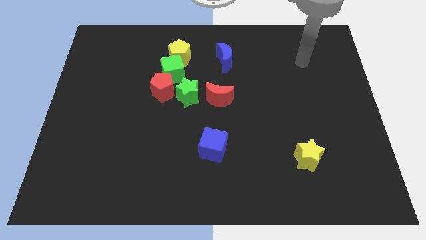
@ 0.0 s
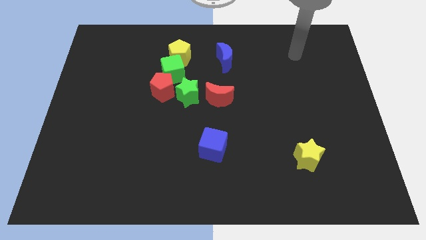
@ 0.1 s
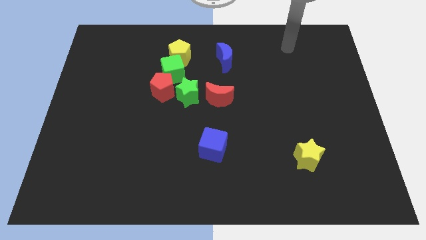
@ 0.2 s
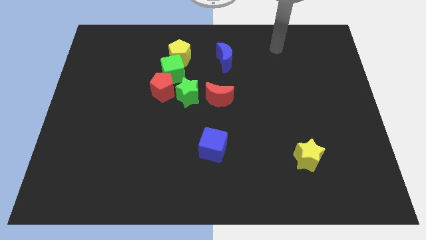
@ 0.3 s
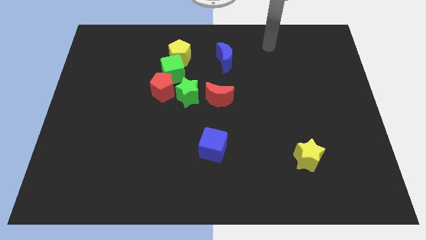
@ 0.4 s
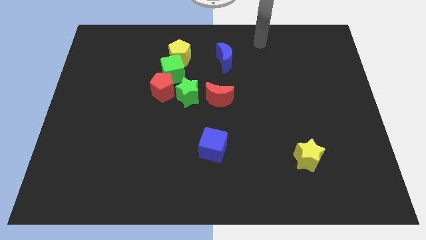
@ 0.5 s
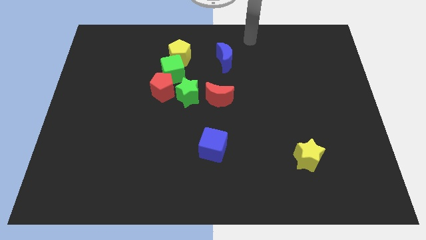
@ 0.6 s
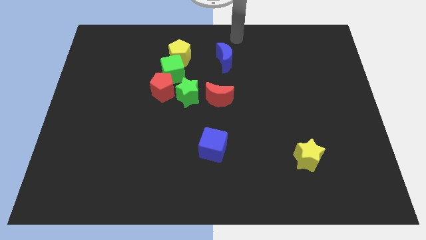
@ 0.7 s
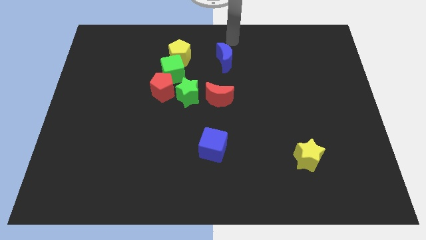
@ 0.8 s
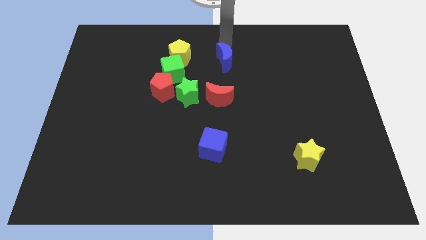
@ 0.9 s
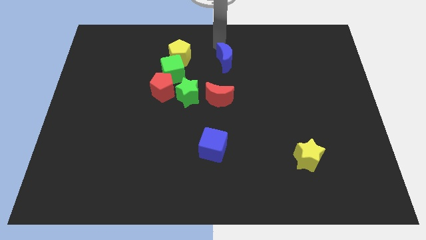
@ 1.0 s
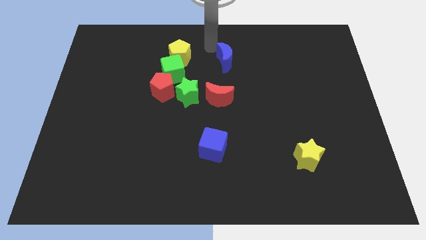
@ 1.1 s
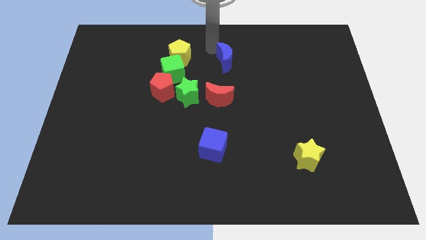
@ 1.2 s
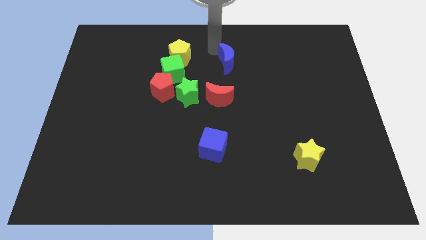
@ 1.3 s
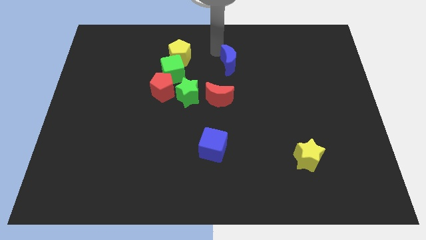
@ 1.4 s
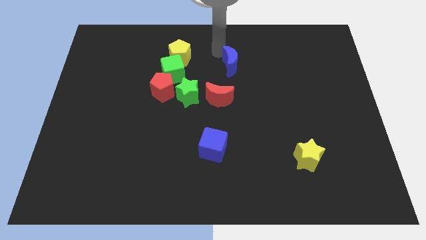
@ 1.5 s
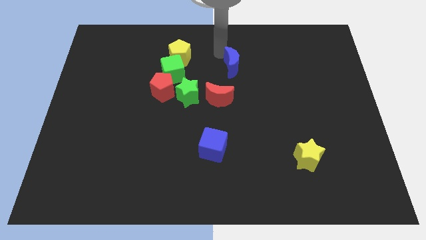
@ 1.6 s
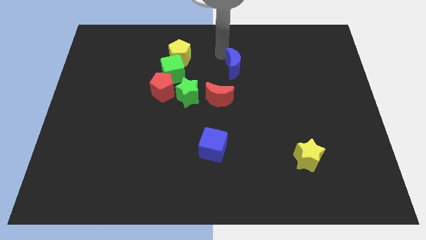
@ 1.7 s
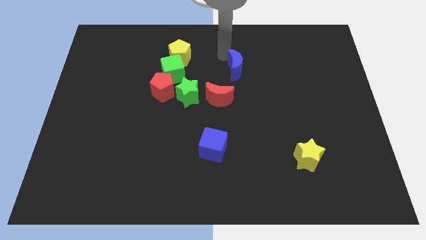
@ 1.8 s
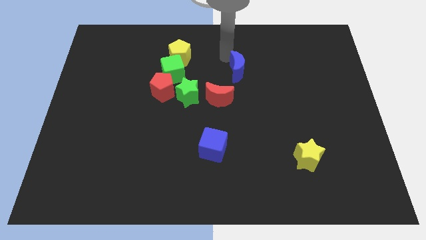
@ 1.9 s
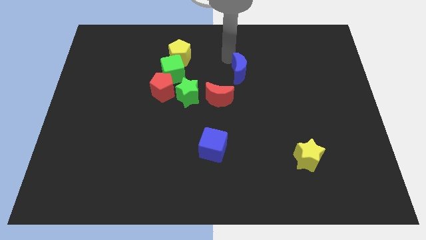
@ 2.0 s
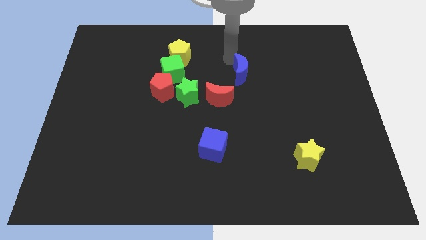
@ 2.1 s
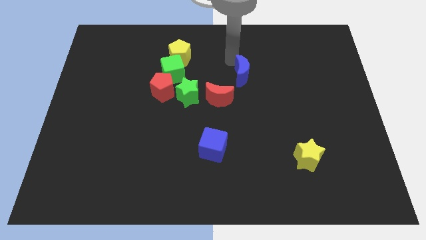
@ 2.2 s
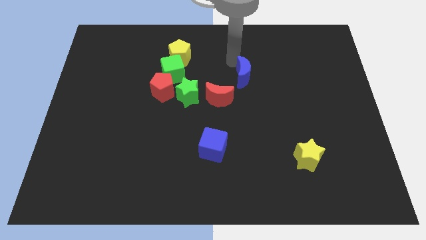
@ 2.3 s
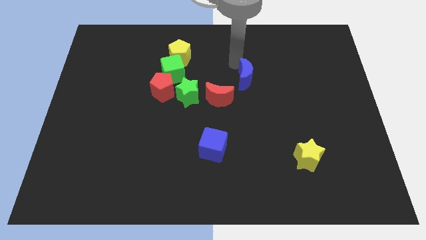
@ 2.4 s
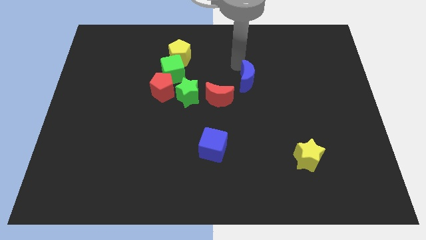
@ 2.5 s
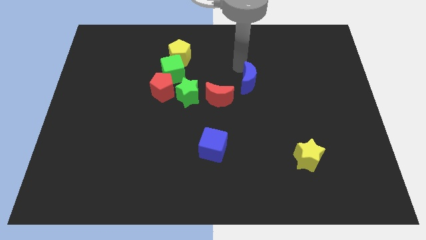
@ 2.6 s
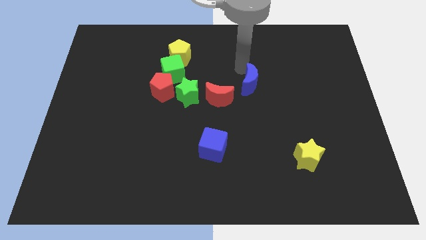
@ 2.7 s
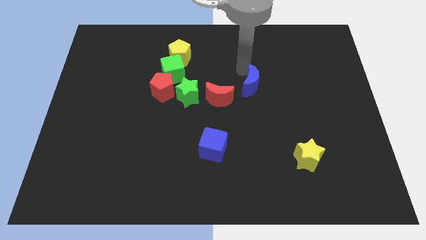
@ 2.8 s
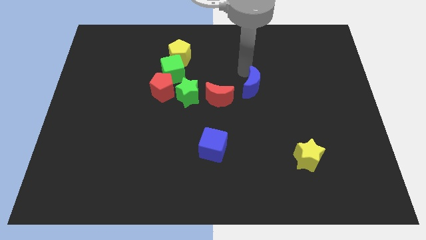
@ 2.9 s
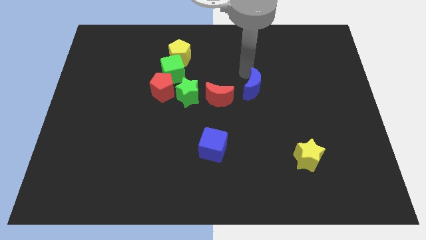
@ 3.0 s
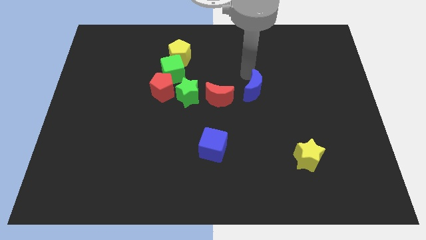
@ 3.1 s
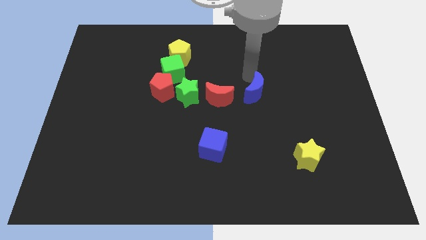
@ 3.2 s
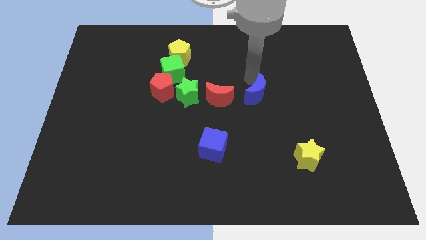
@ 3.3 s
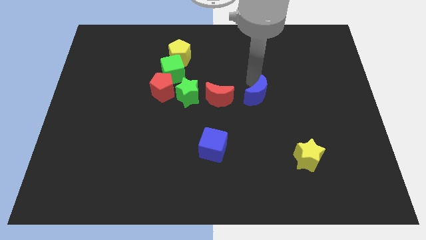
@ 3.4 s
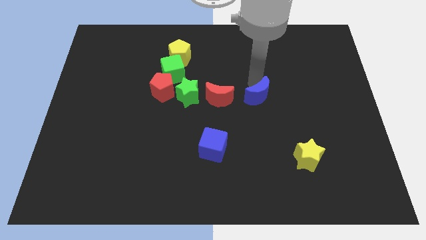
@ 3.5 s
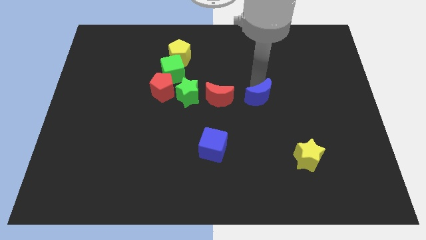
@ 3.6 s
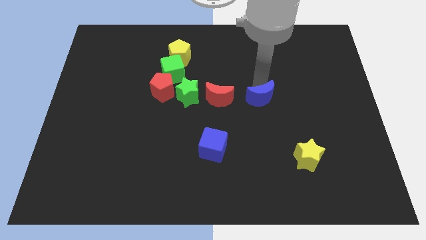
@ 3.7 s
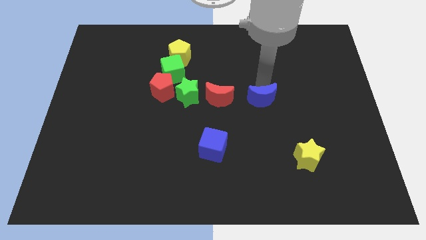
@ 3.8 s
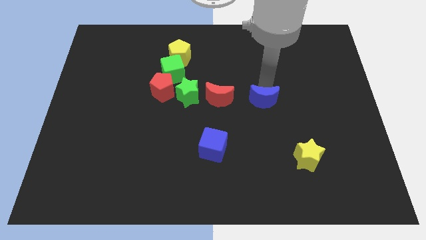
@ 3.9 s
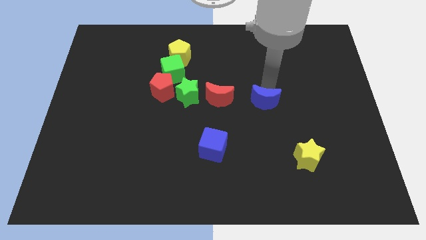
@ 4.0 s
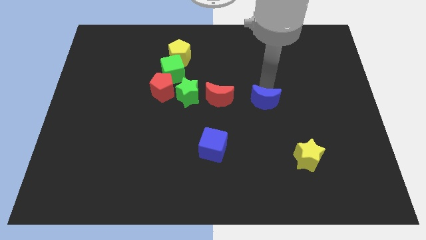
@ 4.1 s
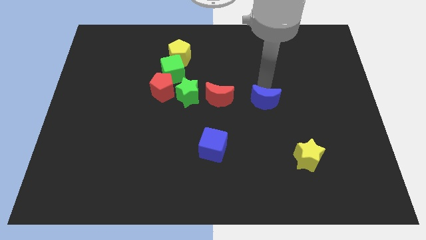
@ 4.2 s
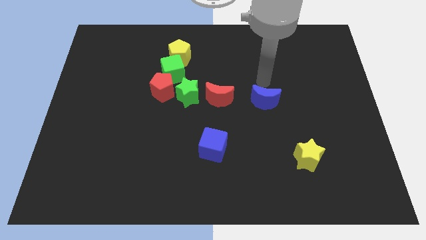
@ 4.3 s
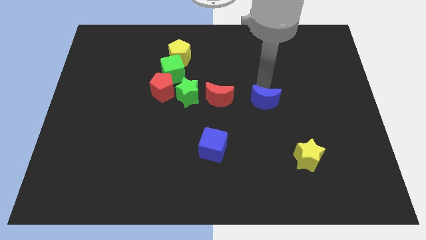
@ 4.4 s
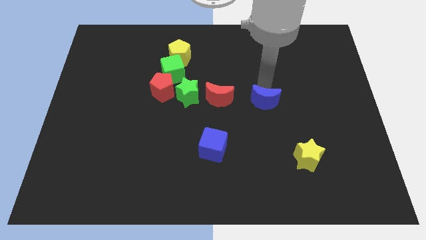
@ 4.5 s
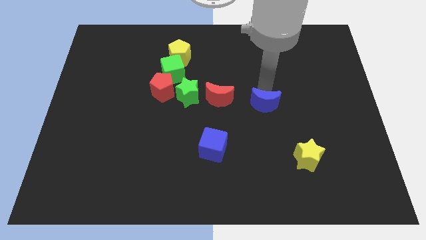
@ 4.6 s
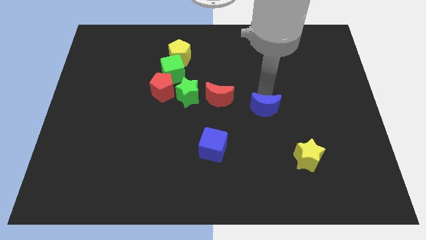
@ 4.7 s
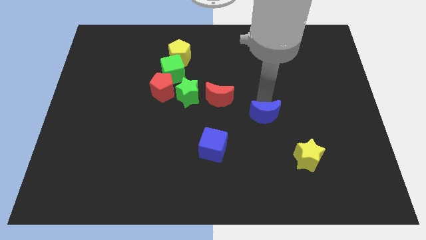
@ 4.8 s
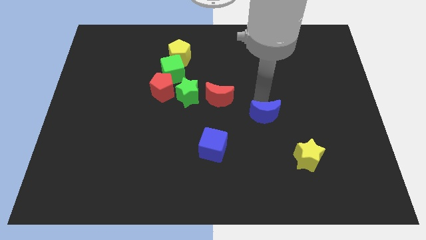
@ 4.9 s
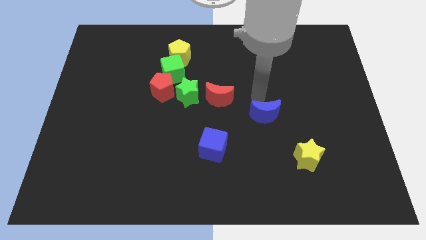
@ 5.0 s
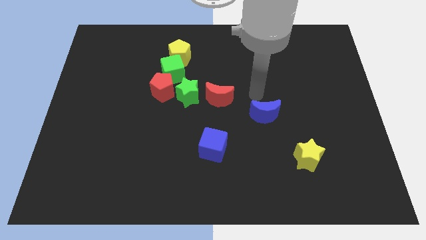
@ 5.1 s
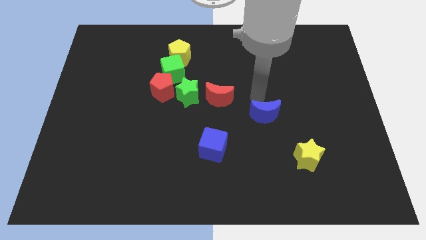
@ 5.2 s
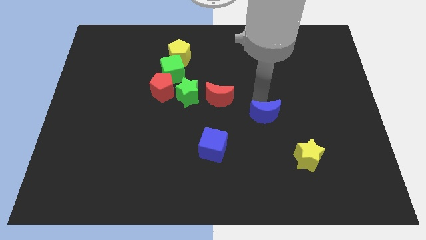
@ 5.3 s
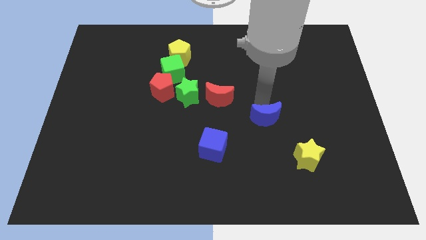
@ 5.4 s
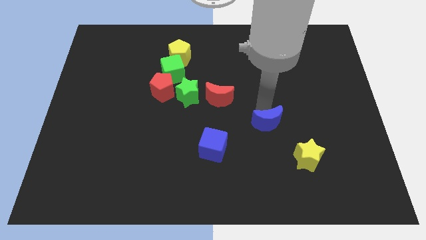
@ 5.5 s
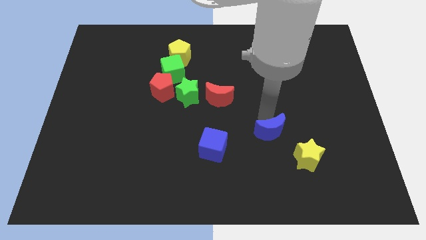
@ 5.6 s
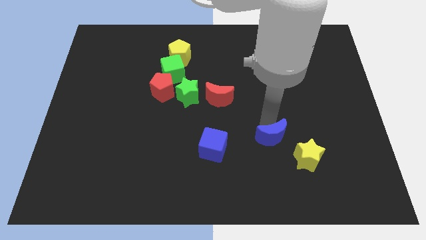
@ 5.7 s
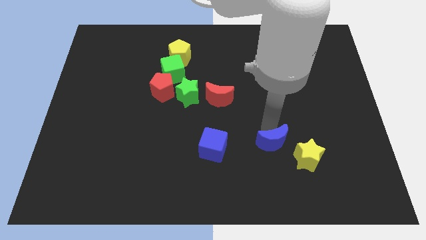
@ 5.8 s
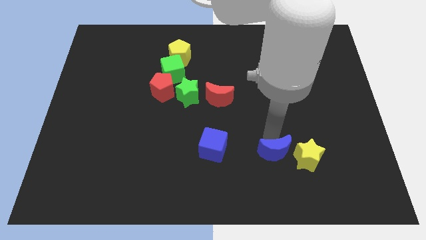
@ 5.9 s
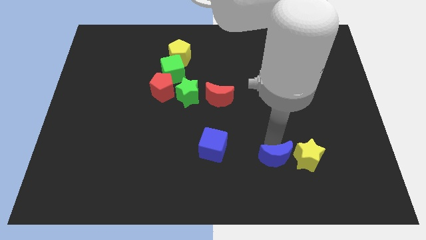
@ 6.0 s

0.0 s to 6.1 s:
put the blue moon to the bottom left side of the yellow star

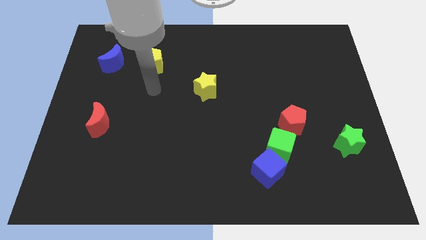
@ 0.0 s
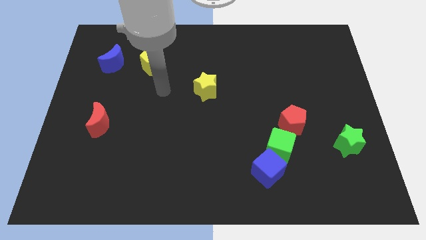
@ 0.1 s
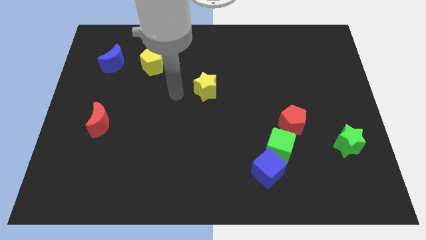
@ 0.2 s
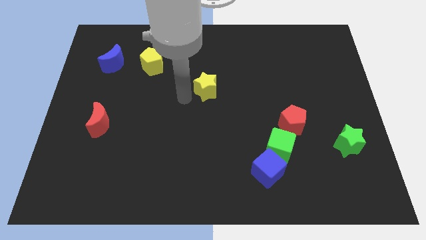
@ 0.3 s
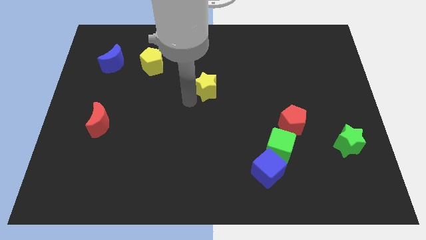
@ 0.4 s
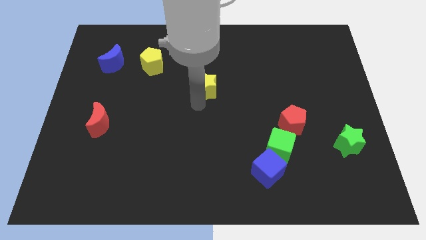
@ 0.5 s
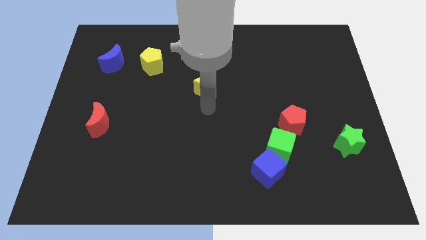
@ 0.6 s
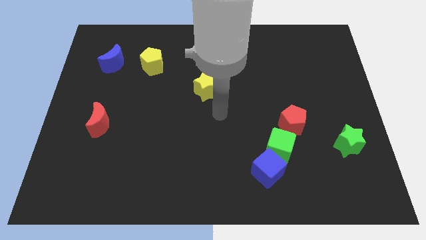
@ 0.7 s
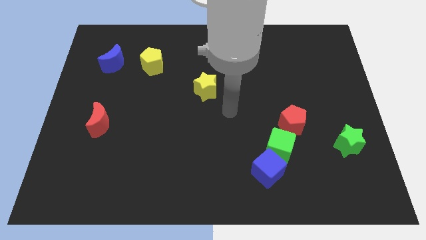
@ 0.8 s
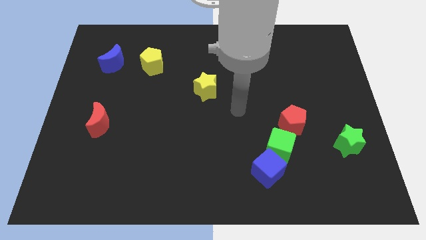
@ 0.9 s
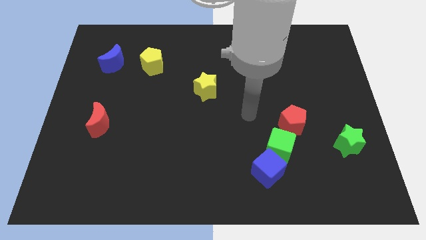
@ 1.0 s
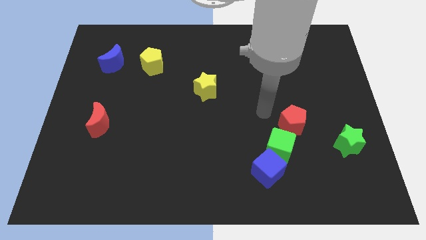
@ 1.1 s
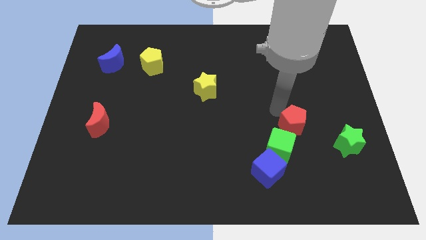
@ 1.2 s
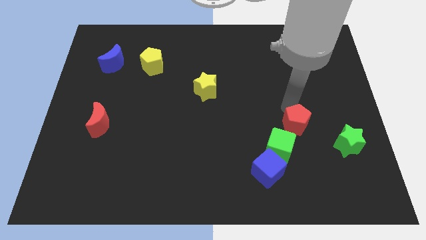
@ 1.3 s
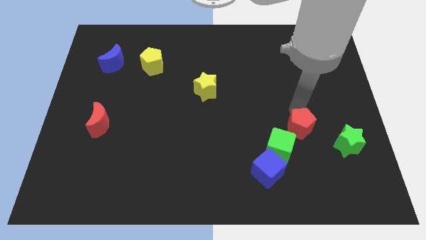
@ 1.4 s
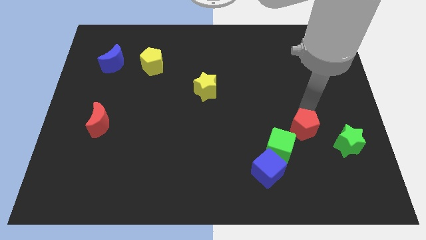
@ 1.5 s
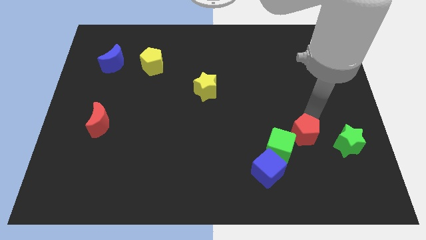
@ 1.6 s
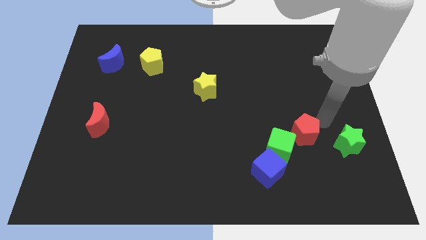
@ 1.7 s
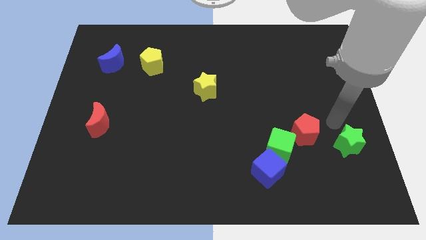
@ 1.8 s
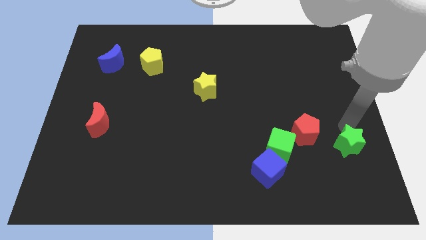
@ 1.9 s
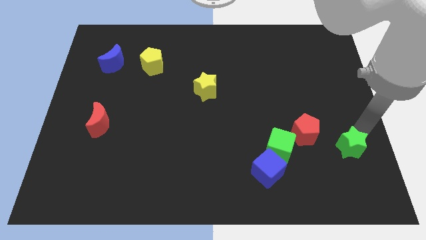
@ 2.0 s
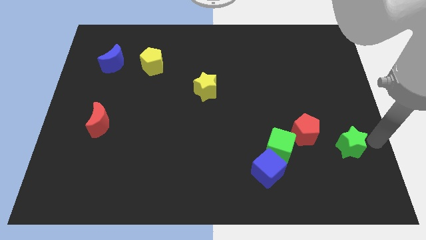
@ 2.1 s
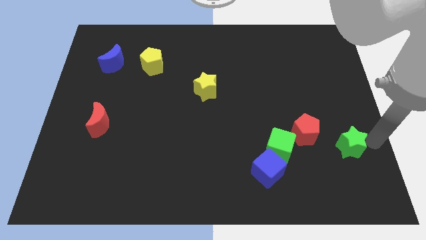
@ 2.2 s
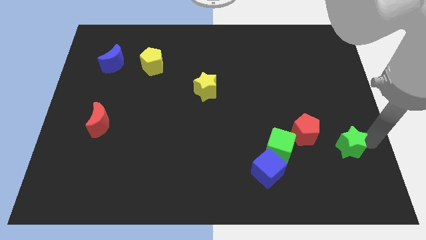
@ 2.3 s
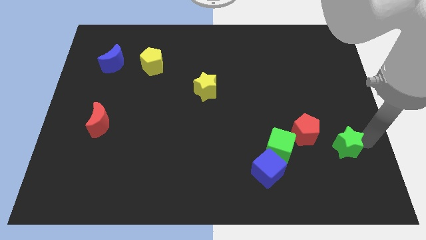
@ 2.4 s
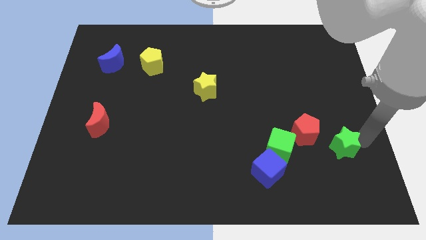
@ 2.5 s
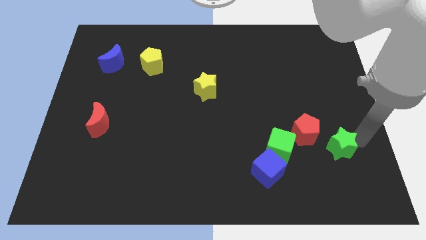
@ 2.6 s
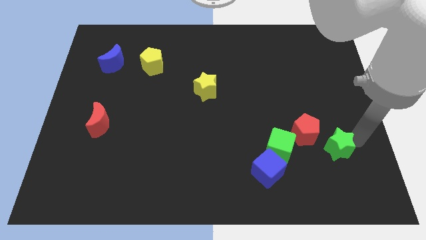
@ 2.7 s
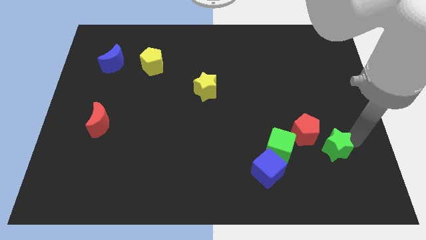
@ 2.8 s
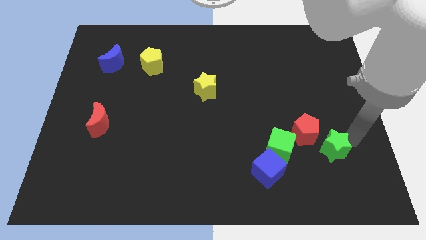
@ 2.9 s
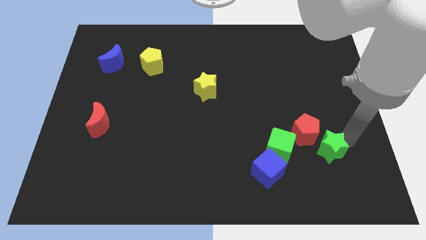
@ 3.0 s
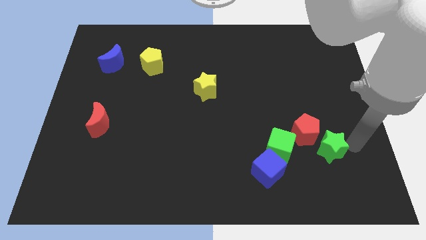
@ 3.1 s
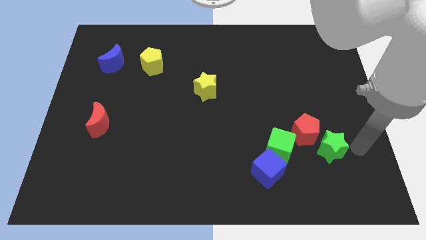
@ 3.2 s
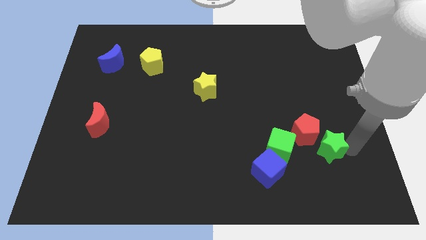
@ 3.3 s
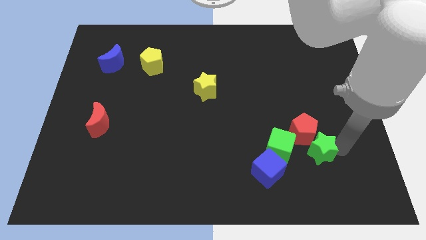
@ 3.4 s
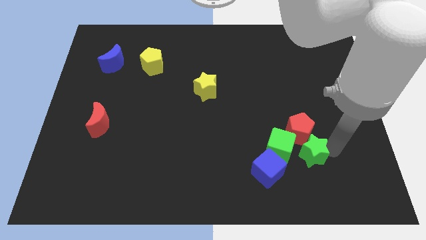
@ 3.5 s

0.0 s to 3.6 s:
move the green star to the top right side of the blue cube
